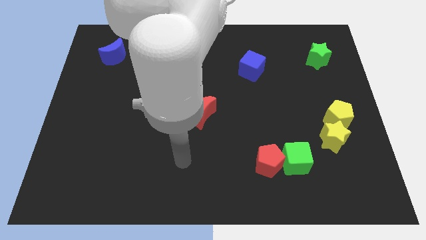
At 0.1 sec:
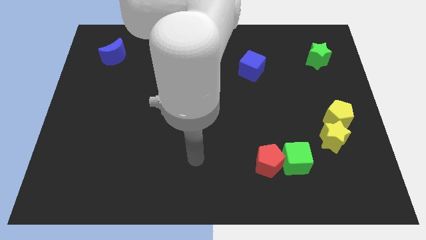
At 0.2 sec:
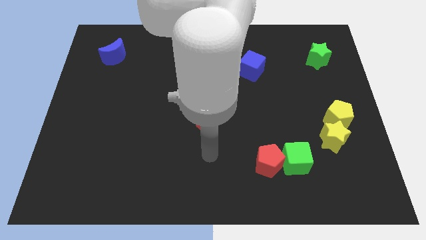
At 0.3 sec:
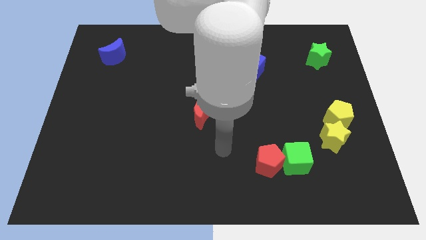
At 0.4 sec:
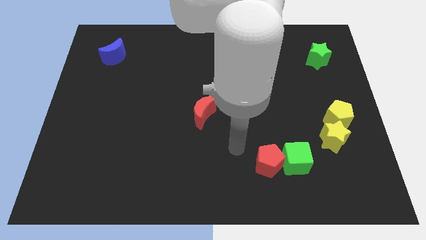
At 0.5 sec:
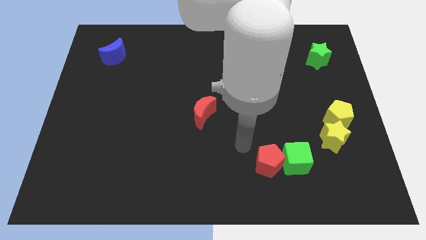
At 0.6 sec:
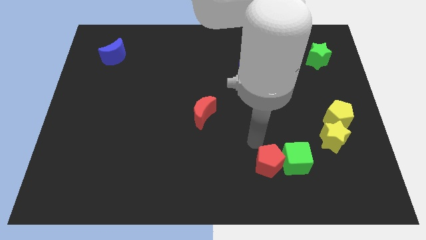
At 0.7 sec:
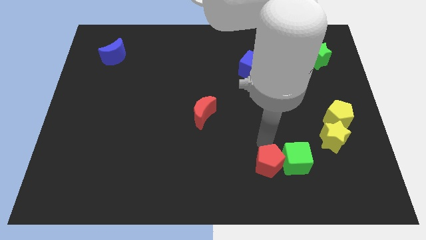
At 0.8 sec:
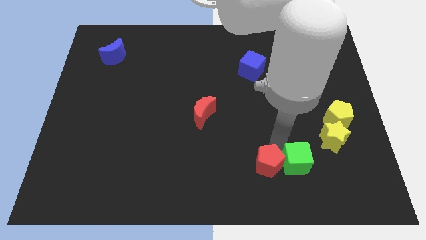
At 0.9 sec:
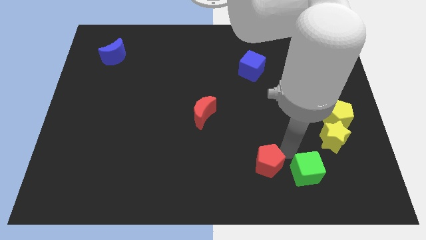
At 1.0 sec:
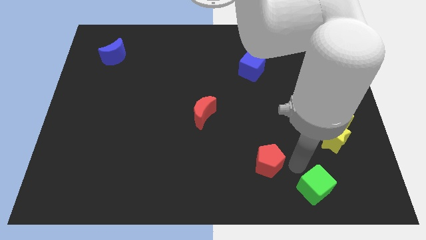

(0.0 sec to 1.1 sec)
move the red pentagon away from the green cube

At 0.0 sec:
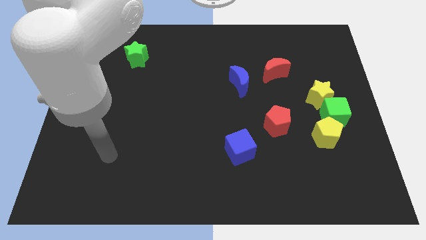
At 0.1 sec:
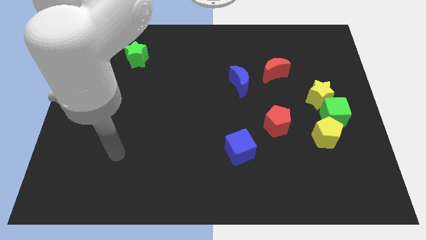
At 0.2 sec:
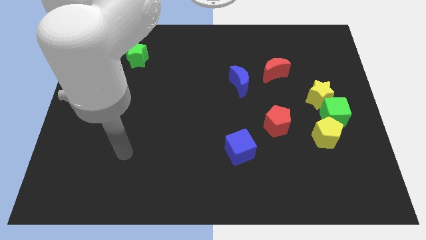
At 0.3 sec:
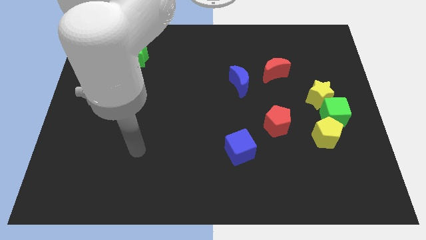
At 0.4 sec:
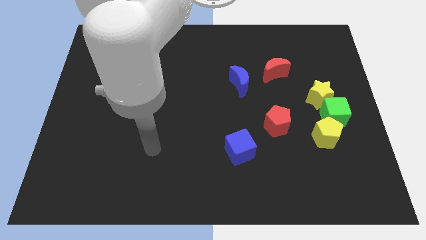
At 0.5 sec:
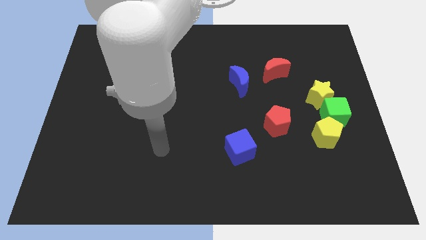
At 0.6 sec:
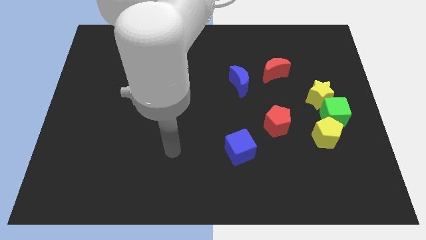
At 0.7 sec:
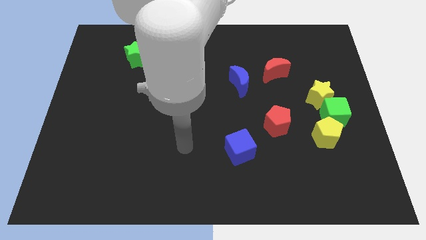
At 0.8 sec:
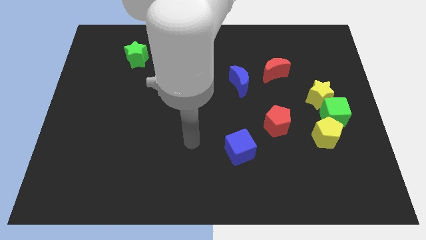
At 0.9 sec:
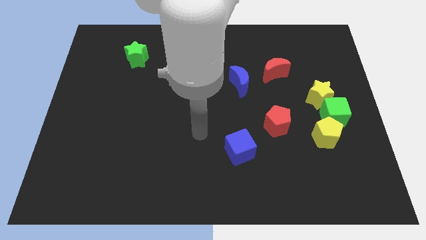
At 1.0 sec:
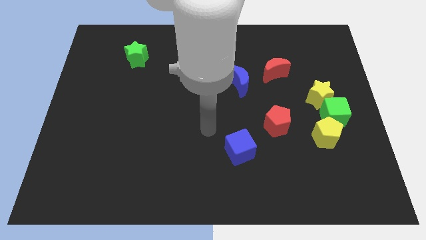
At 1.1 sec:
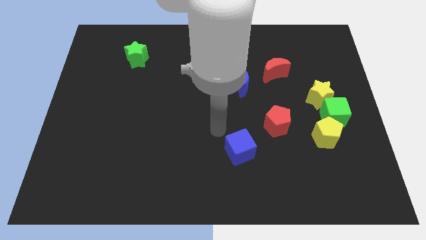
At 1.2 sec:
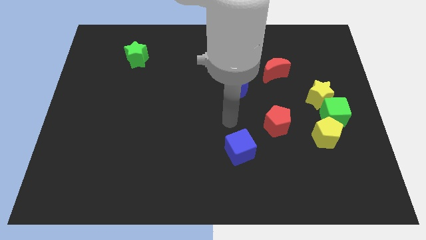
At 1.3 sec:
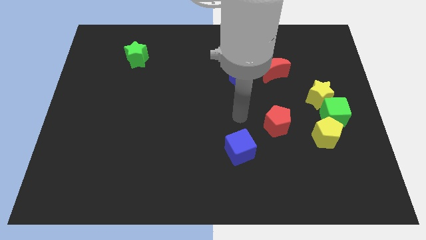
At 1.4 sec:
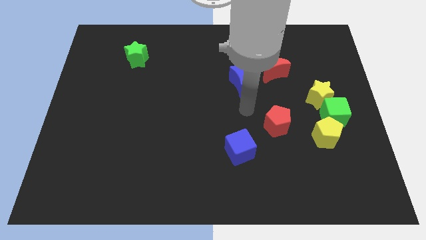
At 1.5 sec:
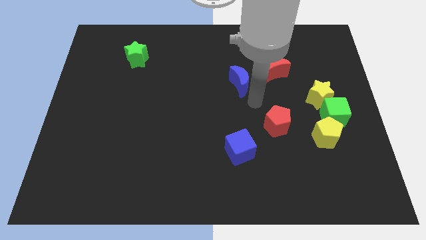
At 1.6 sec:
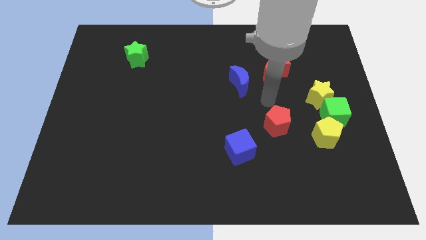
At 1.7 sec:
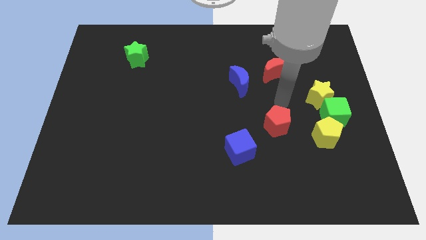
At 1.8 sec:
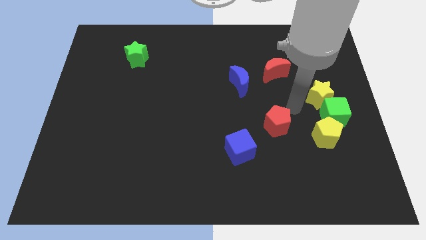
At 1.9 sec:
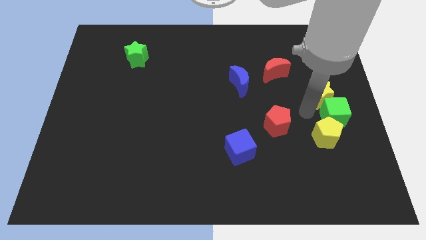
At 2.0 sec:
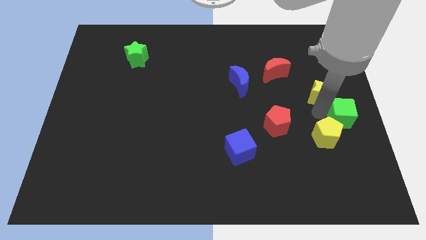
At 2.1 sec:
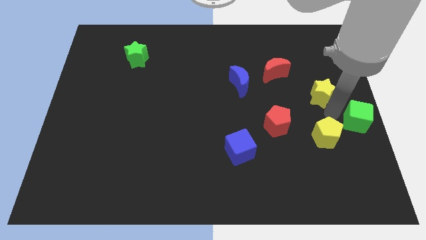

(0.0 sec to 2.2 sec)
separate the yellow star from the green cube

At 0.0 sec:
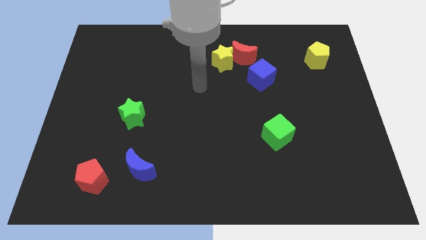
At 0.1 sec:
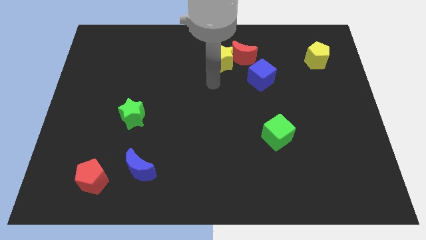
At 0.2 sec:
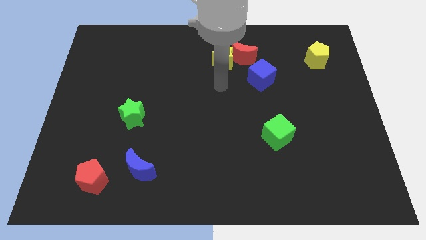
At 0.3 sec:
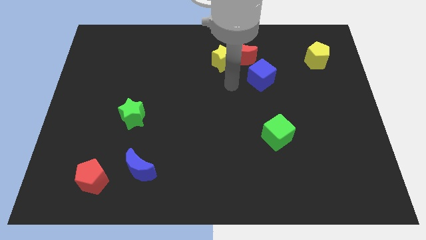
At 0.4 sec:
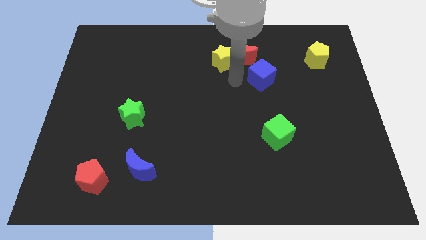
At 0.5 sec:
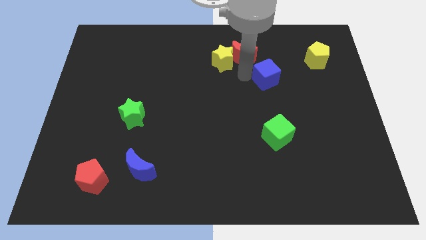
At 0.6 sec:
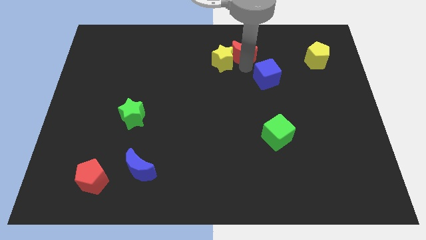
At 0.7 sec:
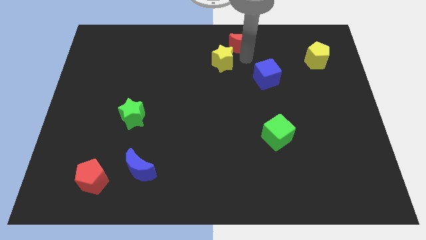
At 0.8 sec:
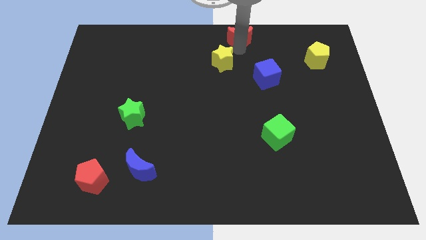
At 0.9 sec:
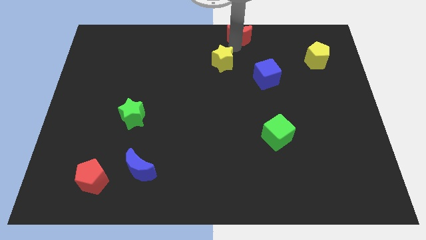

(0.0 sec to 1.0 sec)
separate the yellow star from the red moon

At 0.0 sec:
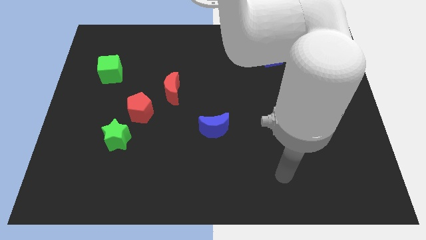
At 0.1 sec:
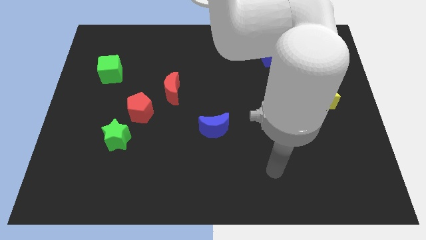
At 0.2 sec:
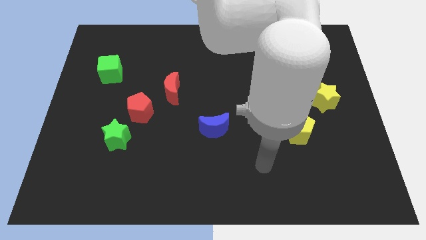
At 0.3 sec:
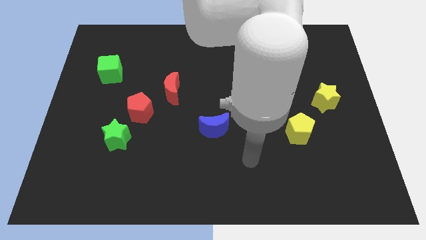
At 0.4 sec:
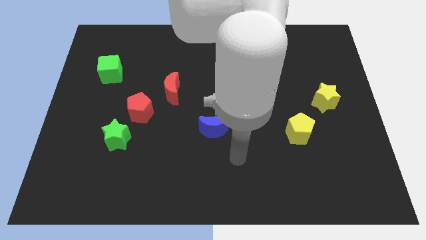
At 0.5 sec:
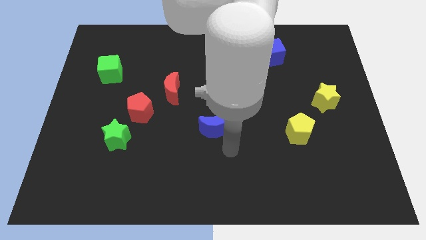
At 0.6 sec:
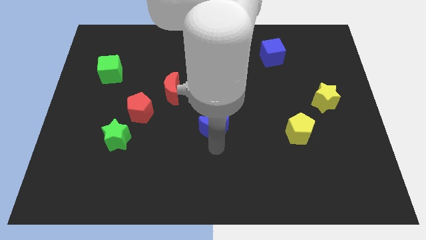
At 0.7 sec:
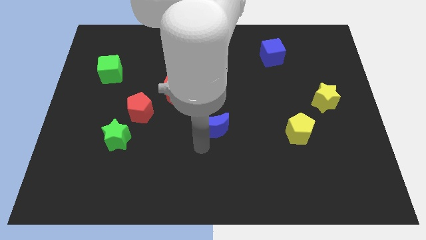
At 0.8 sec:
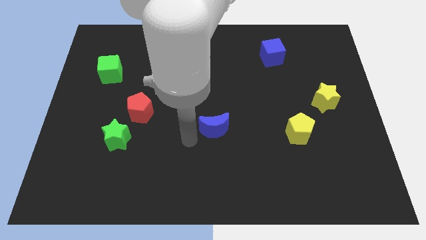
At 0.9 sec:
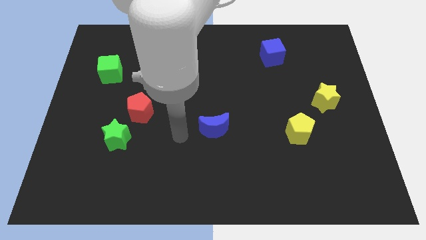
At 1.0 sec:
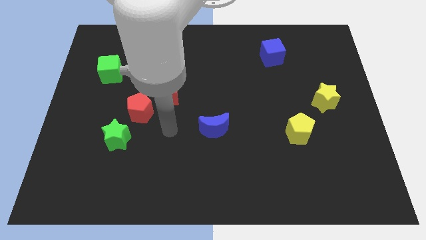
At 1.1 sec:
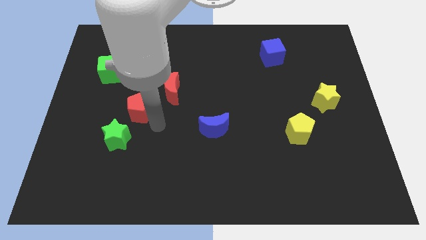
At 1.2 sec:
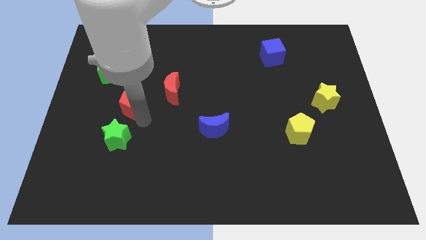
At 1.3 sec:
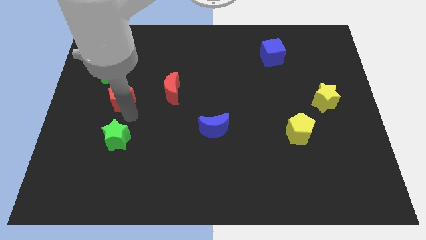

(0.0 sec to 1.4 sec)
move the green star away from the red pentagon

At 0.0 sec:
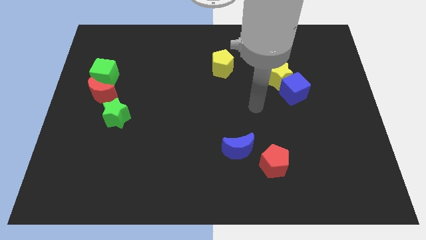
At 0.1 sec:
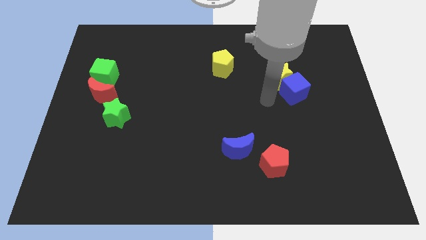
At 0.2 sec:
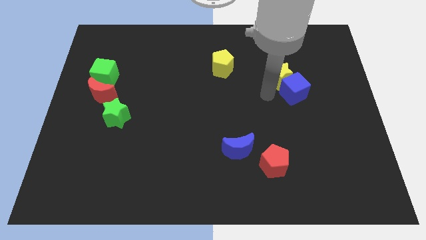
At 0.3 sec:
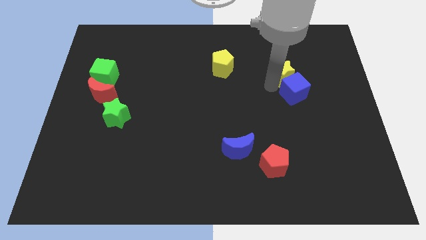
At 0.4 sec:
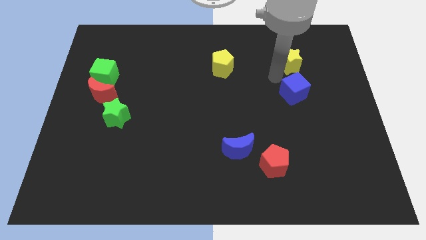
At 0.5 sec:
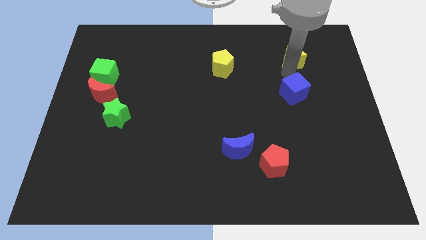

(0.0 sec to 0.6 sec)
separate the blue cube from the yellow star

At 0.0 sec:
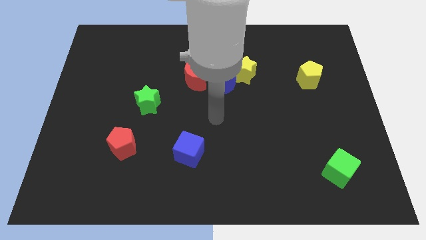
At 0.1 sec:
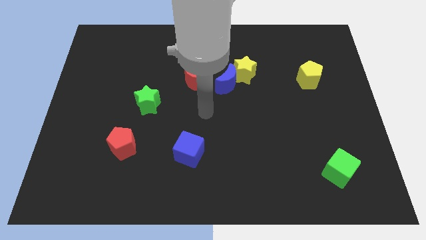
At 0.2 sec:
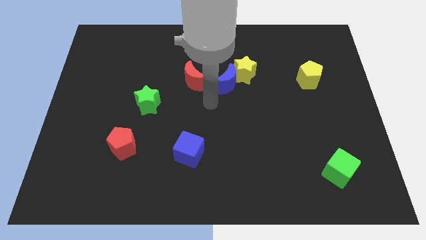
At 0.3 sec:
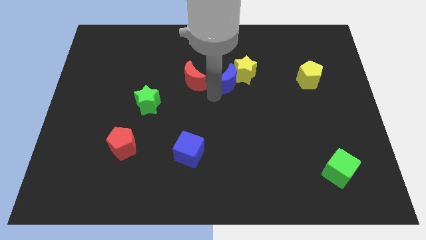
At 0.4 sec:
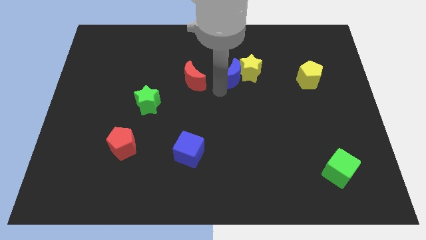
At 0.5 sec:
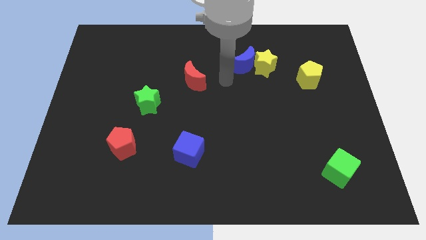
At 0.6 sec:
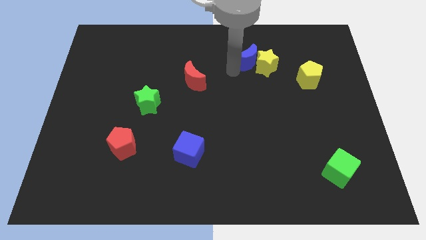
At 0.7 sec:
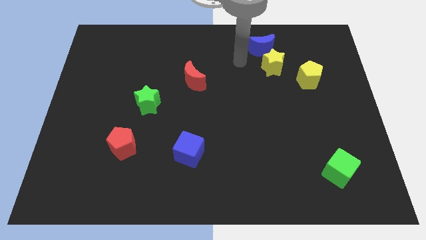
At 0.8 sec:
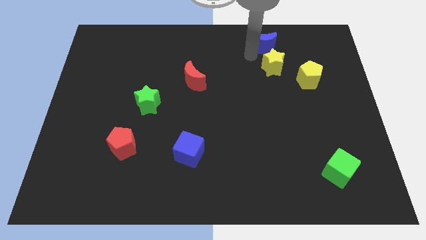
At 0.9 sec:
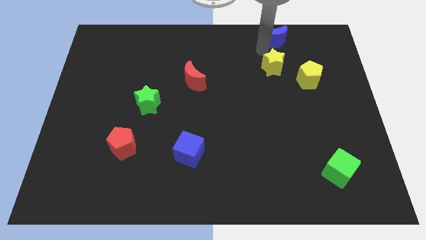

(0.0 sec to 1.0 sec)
separate the yellow star from the blue moon

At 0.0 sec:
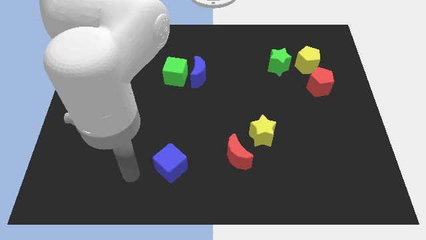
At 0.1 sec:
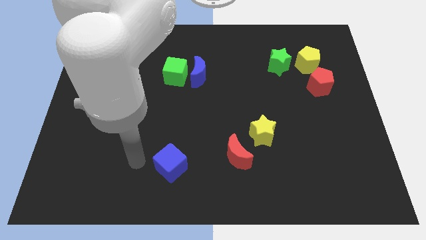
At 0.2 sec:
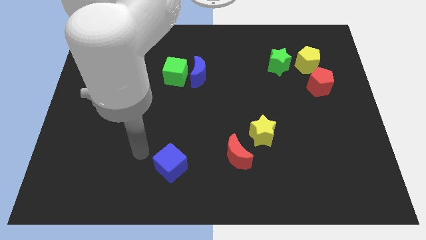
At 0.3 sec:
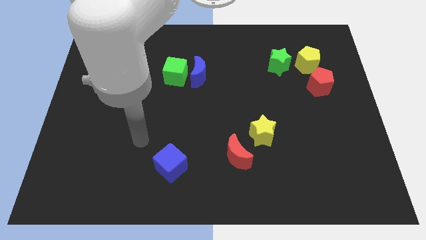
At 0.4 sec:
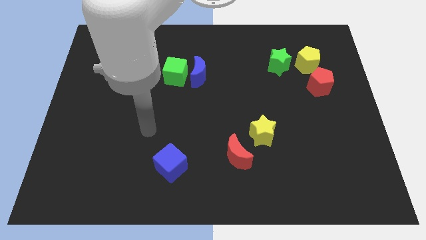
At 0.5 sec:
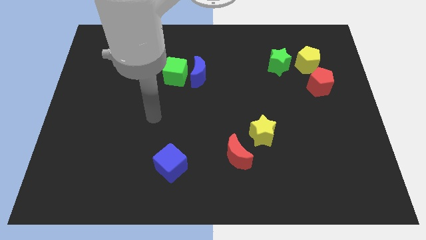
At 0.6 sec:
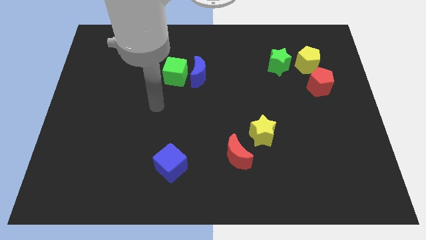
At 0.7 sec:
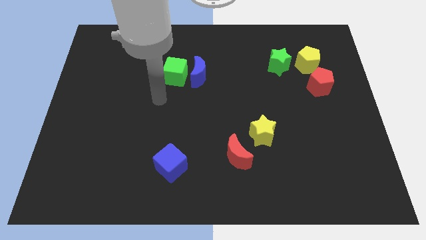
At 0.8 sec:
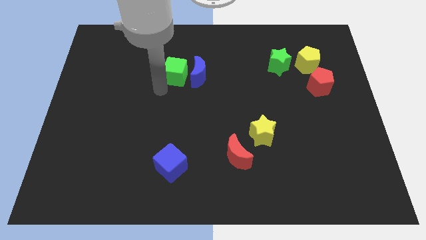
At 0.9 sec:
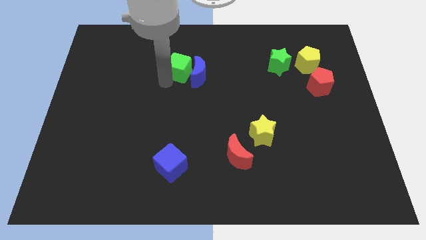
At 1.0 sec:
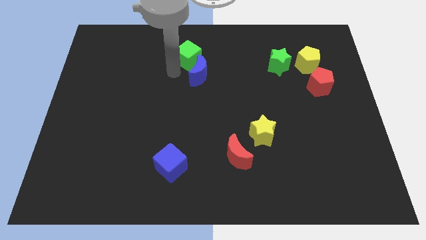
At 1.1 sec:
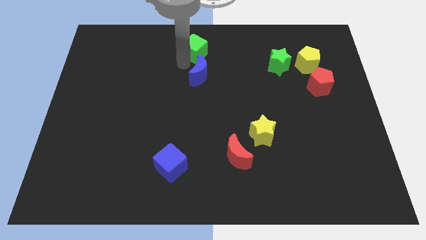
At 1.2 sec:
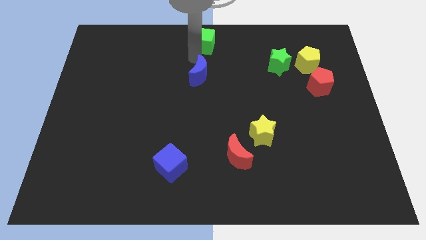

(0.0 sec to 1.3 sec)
separate the blue moon from the green cube

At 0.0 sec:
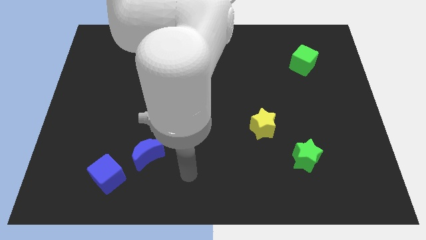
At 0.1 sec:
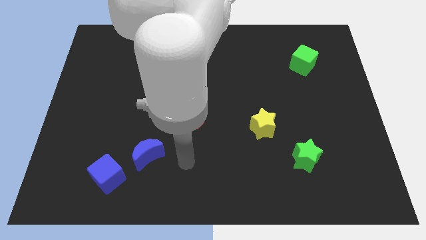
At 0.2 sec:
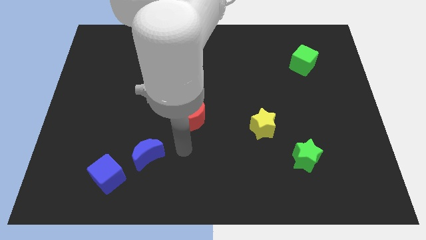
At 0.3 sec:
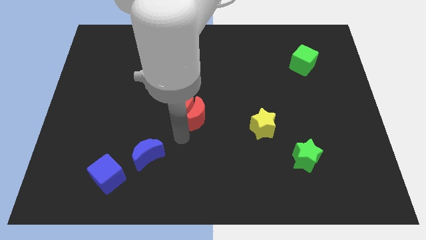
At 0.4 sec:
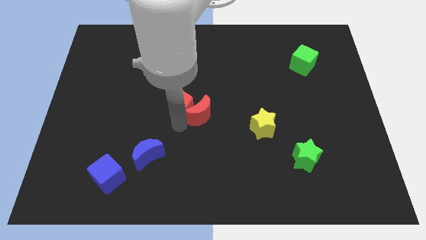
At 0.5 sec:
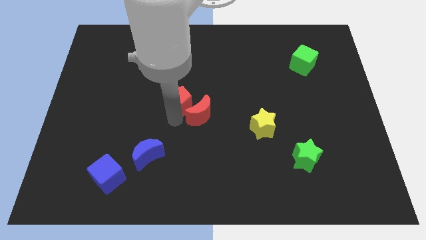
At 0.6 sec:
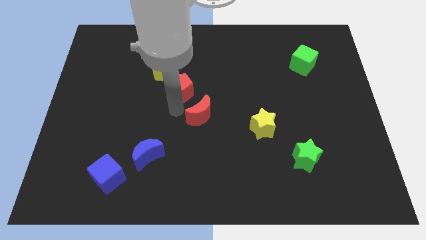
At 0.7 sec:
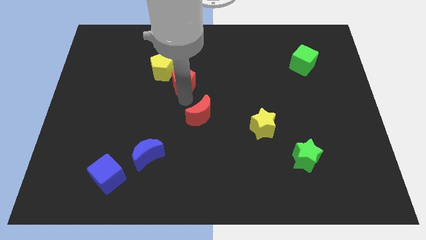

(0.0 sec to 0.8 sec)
pull the red moon apart from the red pentagon

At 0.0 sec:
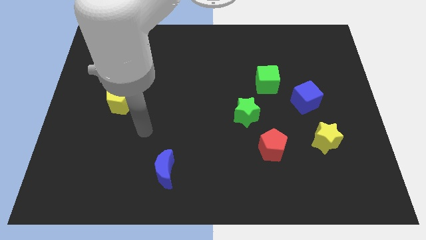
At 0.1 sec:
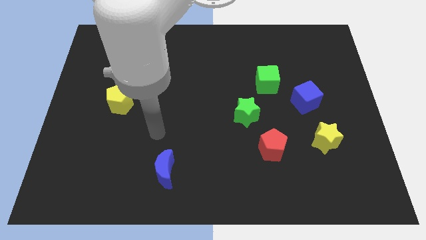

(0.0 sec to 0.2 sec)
pull the red pentagon apart from the green star
